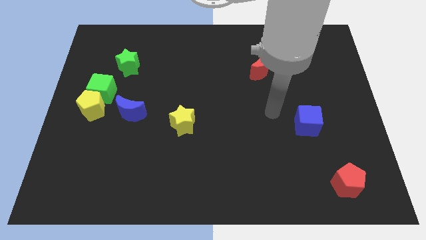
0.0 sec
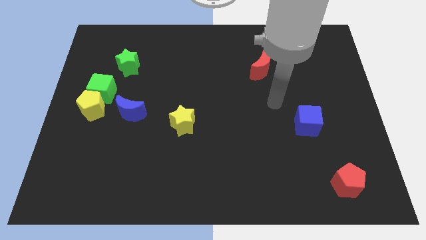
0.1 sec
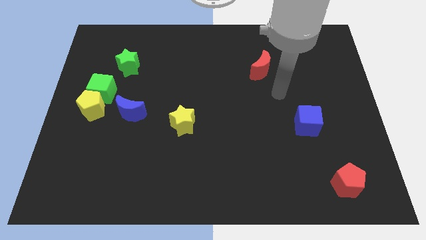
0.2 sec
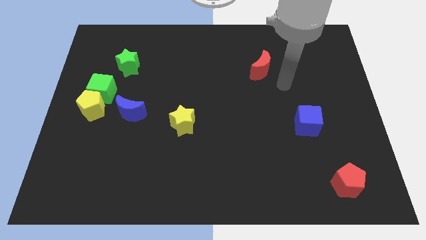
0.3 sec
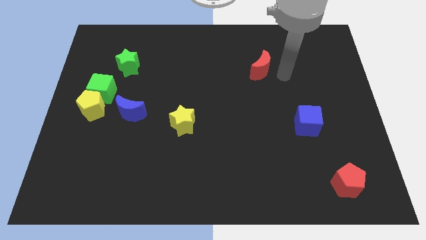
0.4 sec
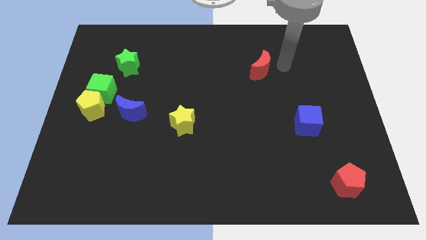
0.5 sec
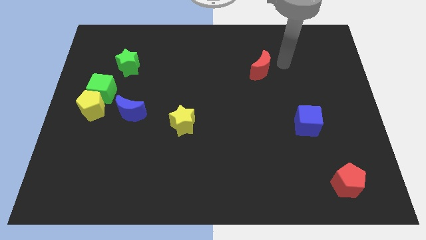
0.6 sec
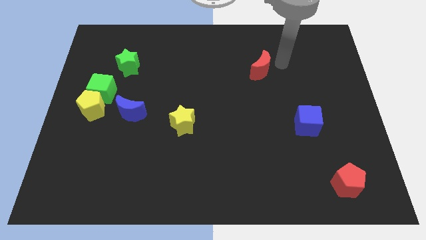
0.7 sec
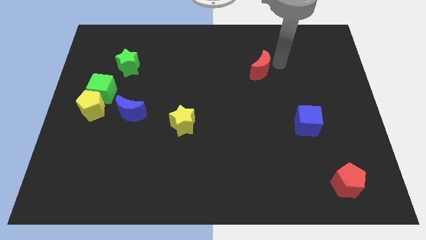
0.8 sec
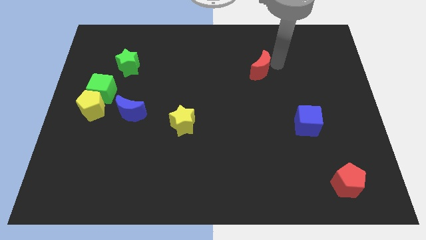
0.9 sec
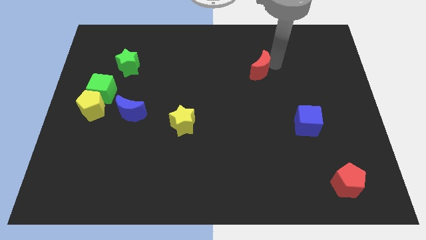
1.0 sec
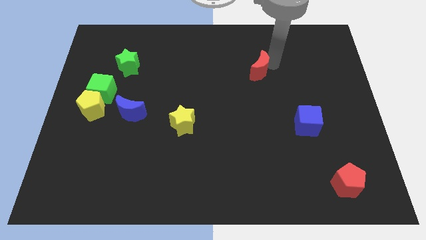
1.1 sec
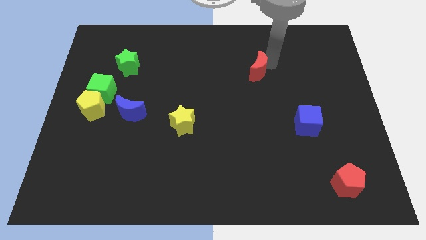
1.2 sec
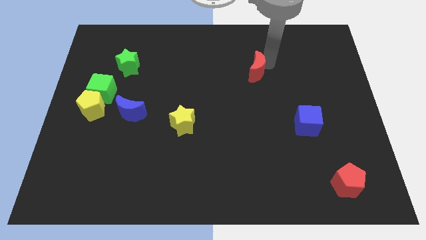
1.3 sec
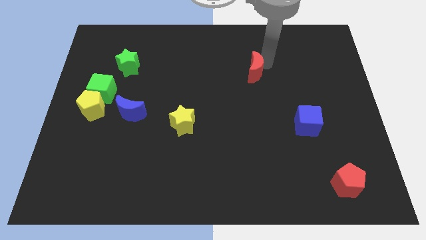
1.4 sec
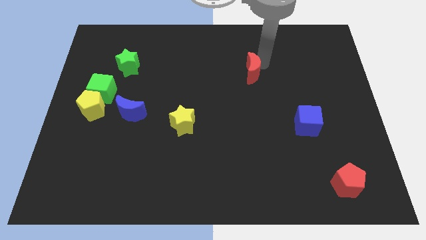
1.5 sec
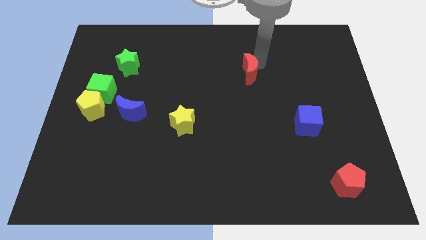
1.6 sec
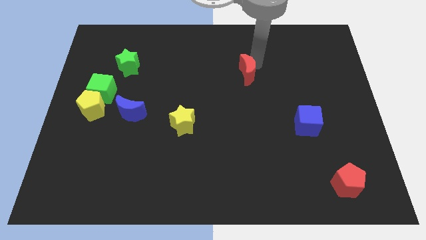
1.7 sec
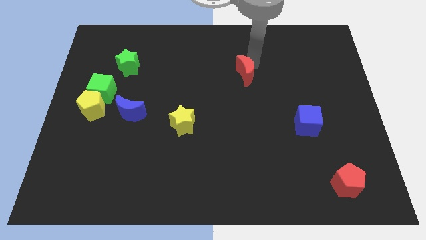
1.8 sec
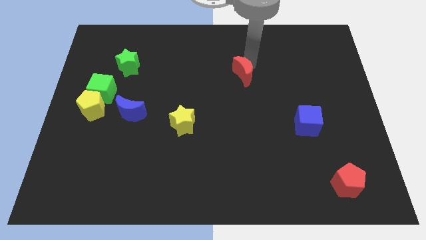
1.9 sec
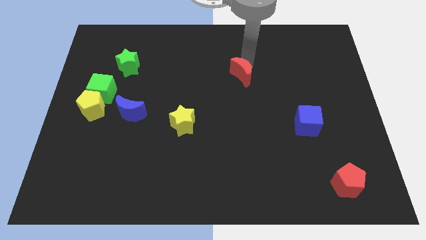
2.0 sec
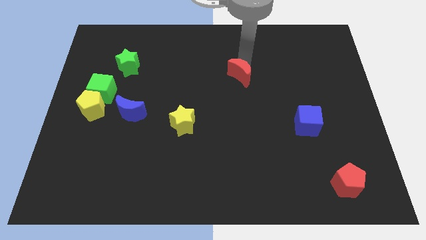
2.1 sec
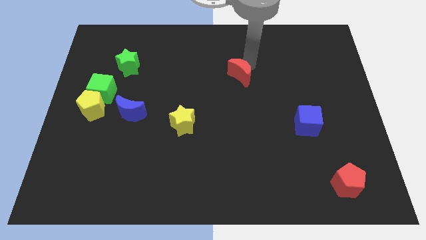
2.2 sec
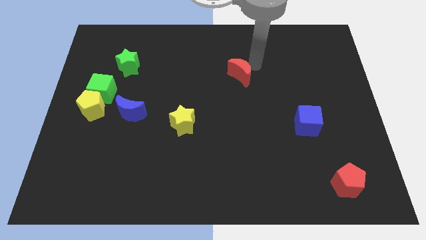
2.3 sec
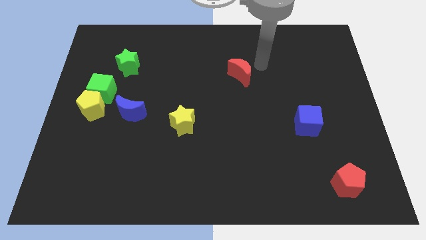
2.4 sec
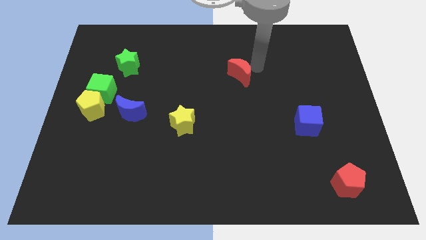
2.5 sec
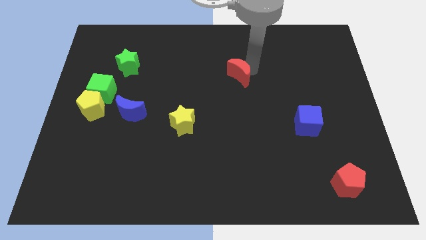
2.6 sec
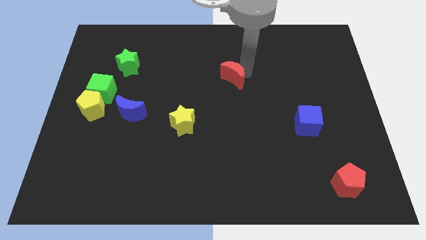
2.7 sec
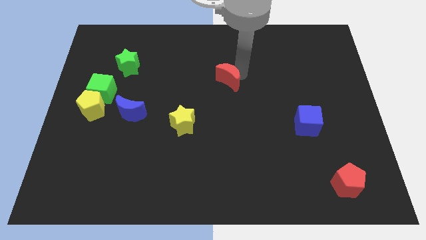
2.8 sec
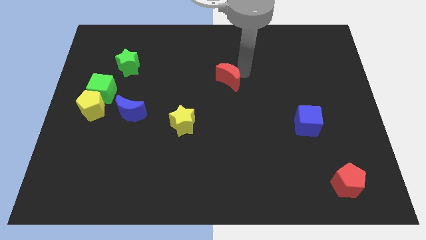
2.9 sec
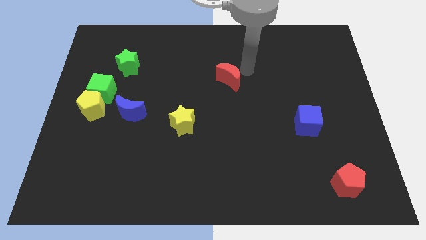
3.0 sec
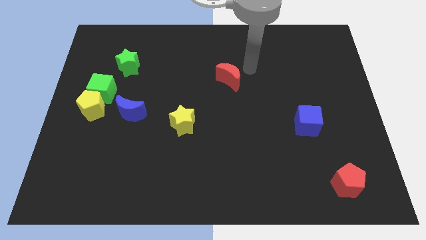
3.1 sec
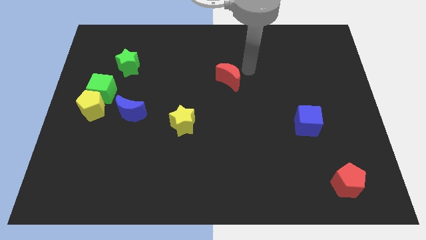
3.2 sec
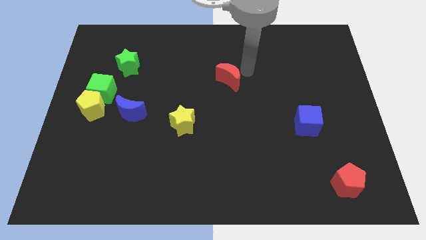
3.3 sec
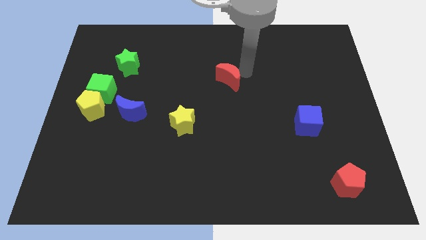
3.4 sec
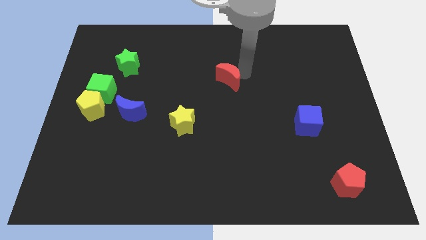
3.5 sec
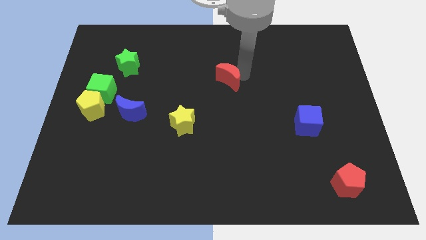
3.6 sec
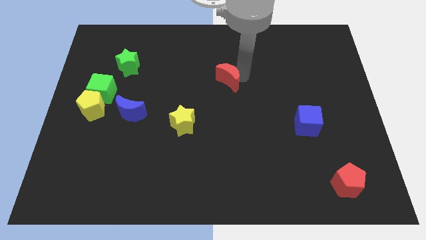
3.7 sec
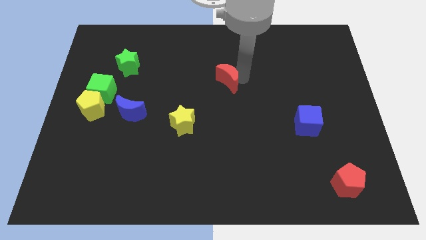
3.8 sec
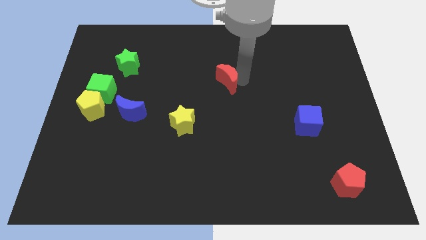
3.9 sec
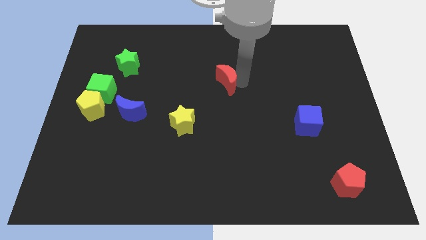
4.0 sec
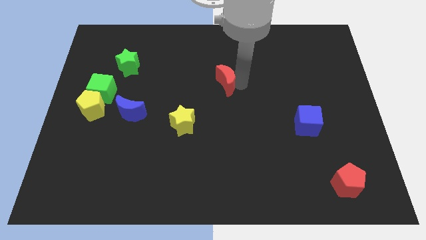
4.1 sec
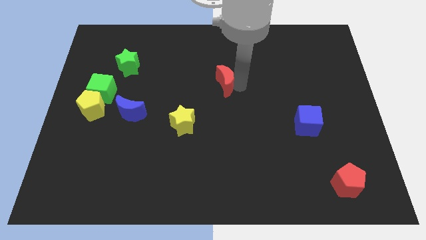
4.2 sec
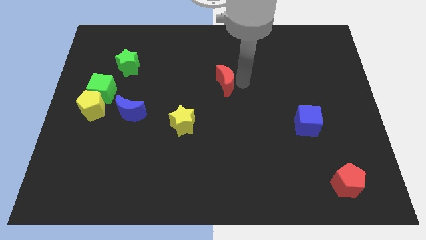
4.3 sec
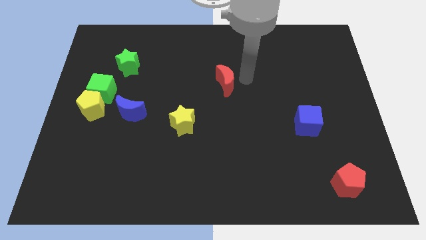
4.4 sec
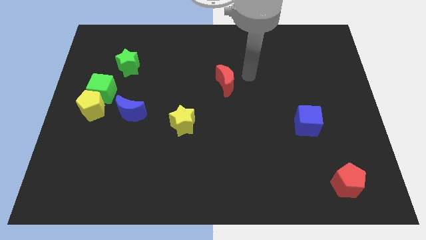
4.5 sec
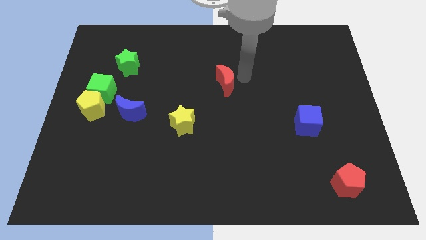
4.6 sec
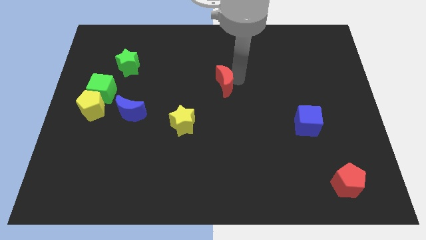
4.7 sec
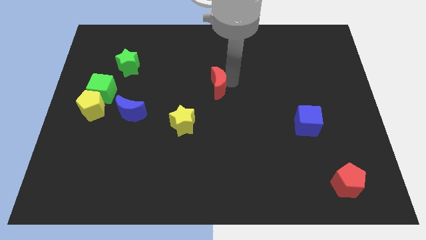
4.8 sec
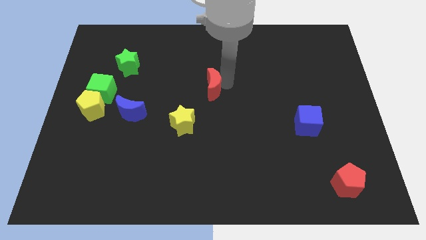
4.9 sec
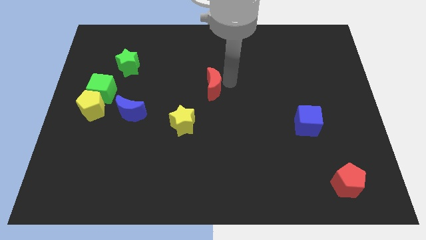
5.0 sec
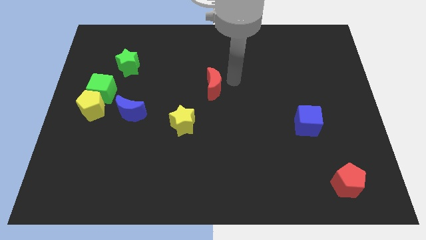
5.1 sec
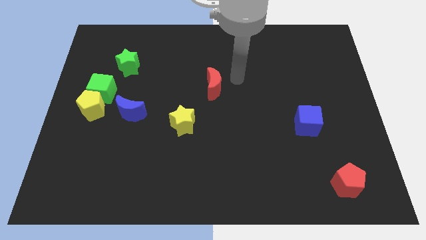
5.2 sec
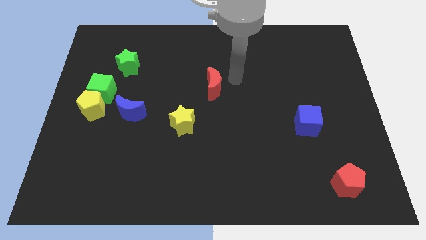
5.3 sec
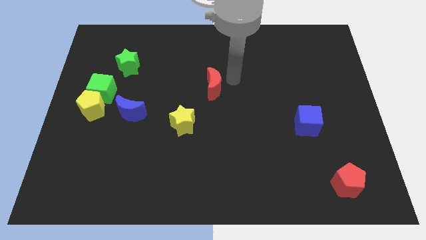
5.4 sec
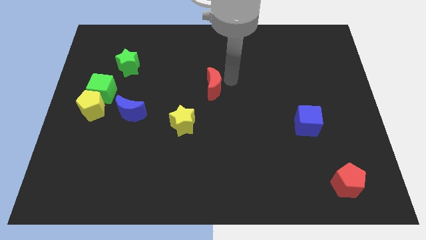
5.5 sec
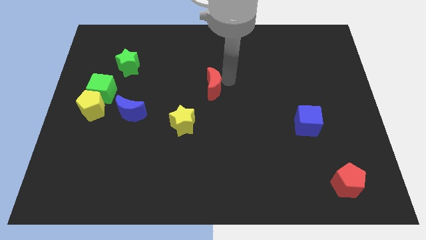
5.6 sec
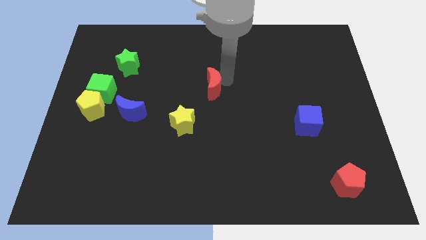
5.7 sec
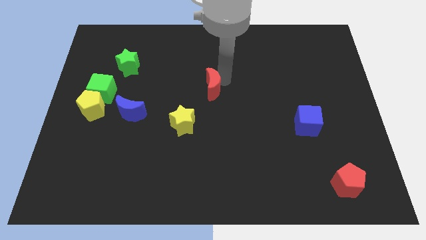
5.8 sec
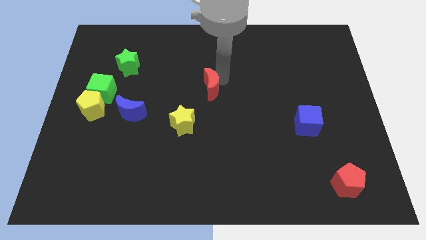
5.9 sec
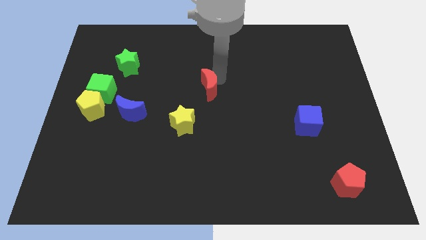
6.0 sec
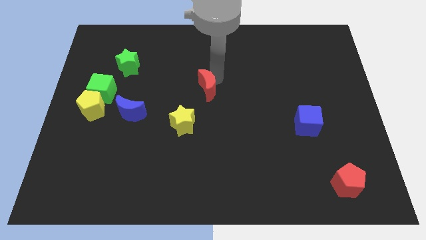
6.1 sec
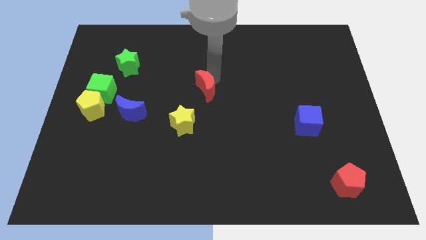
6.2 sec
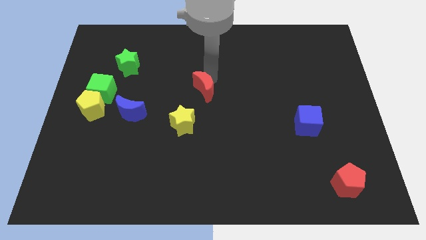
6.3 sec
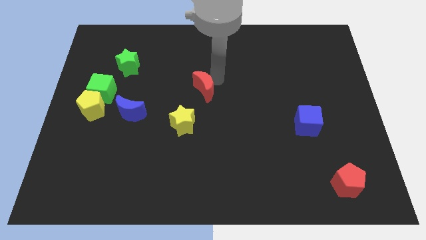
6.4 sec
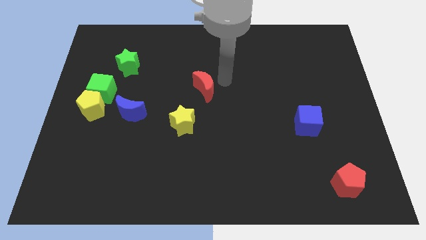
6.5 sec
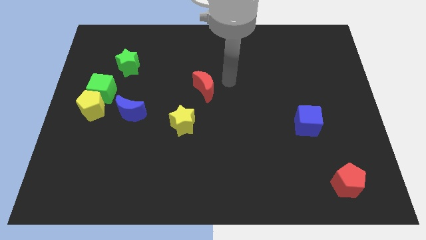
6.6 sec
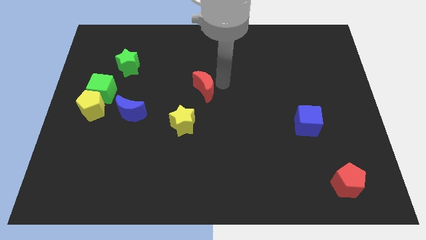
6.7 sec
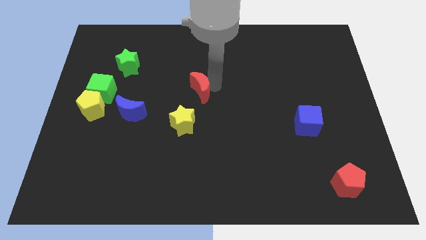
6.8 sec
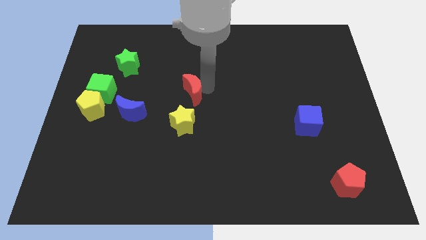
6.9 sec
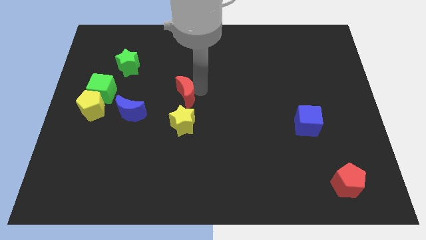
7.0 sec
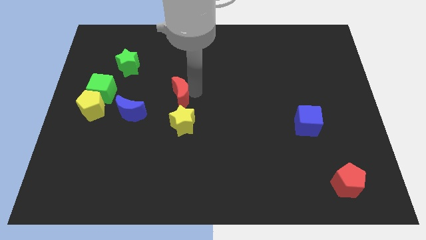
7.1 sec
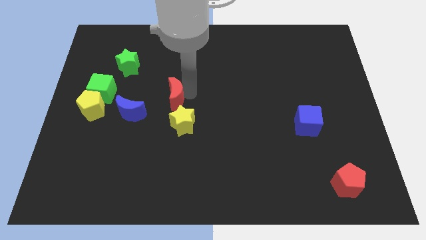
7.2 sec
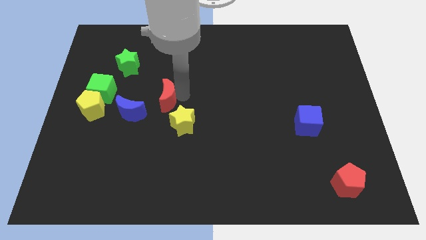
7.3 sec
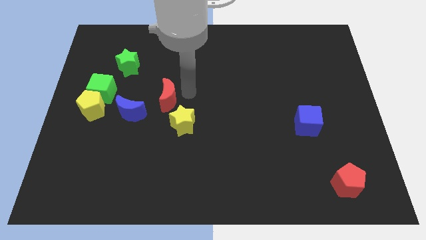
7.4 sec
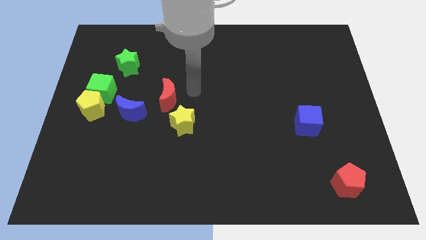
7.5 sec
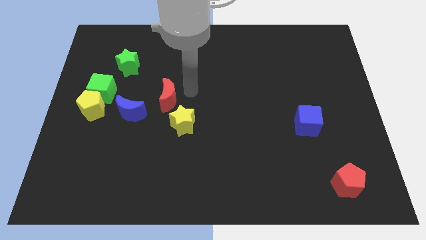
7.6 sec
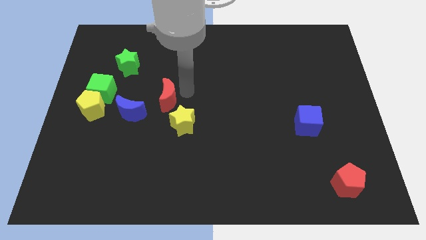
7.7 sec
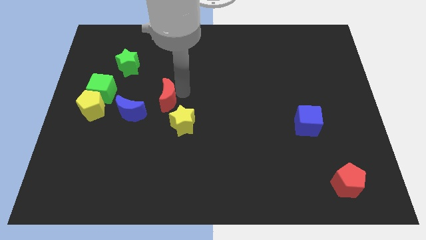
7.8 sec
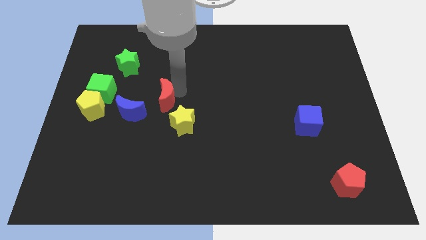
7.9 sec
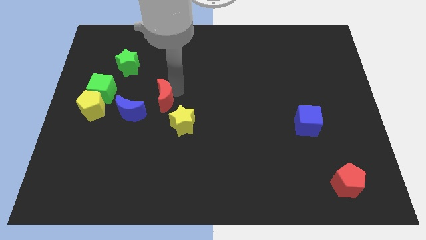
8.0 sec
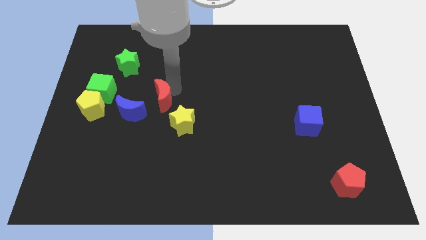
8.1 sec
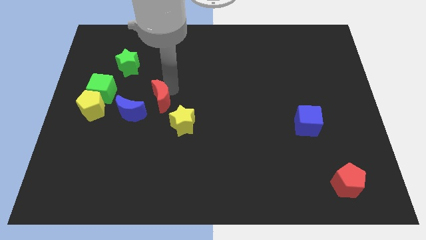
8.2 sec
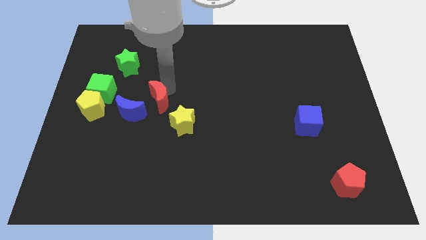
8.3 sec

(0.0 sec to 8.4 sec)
slide the red moon just right of the yellow pentagon
